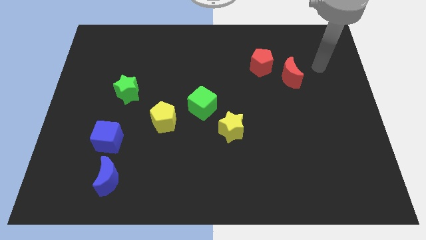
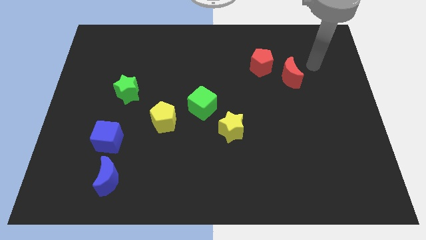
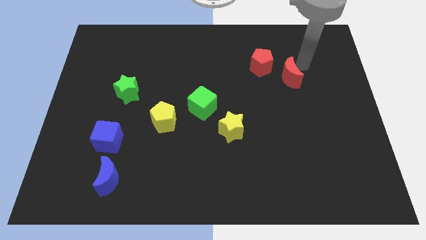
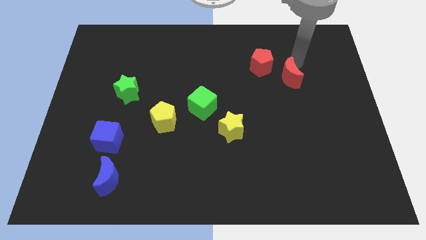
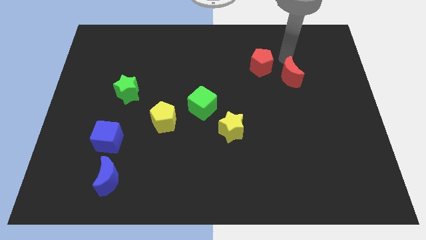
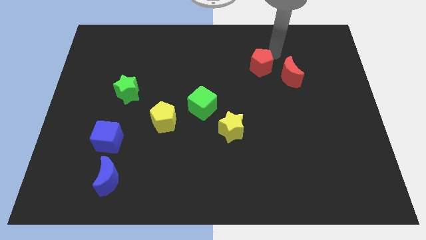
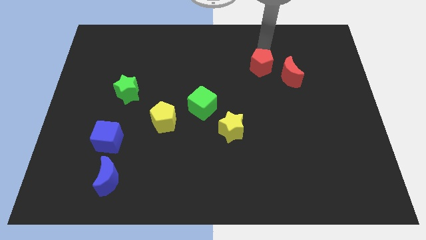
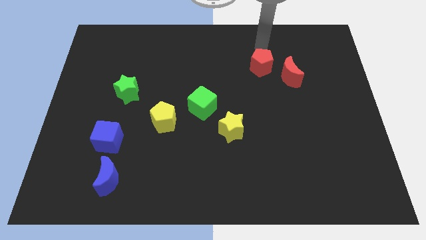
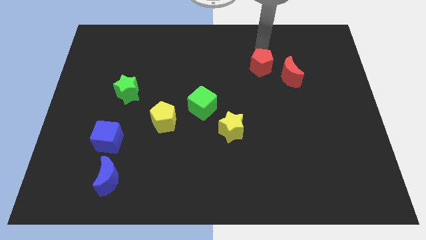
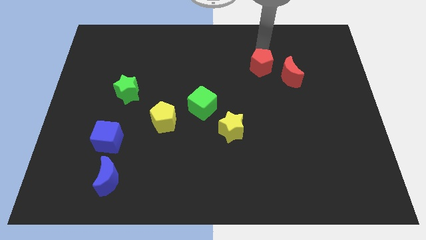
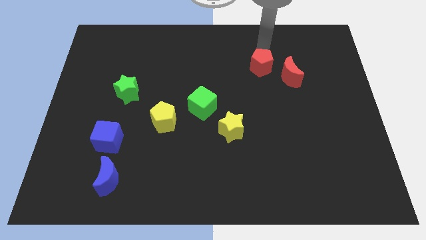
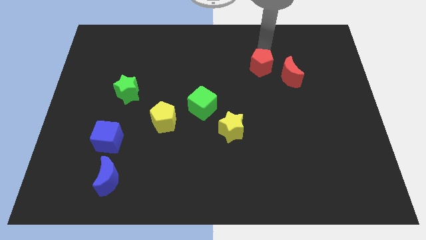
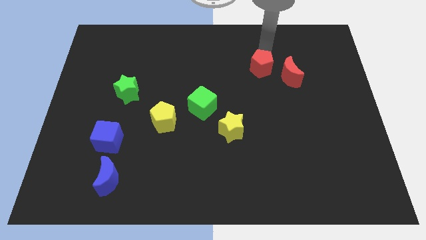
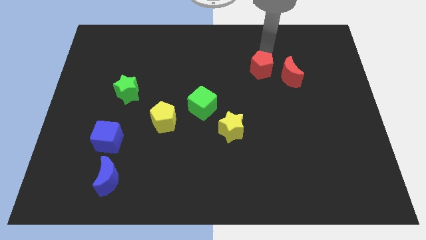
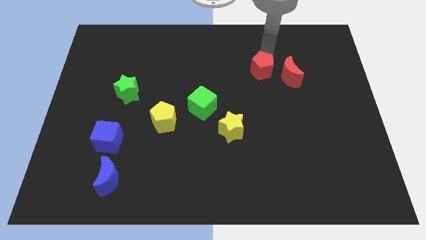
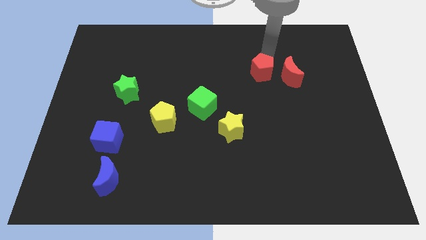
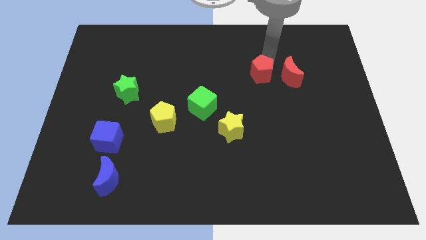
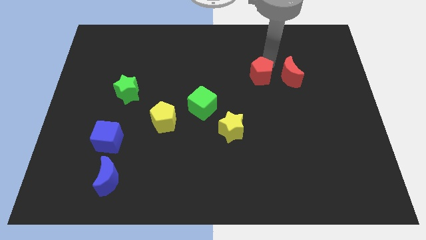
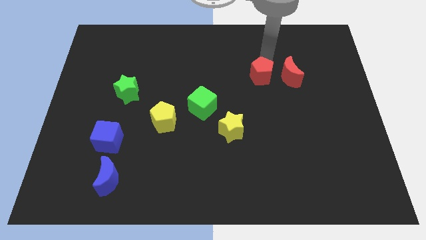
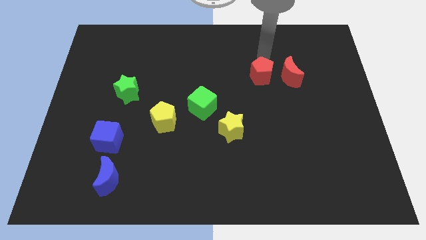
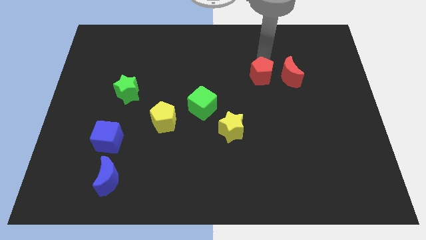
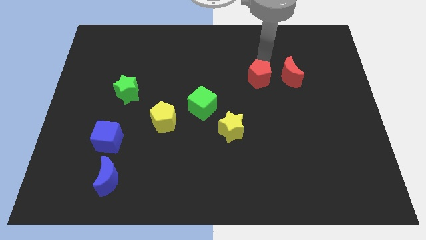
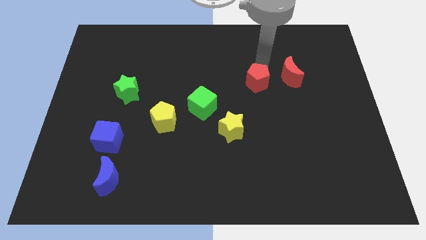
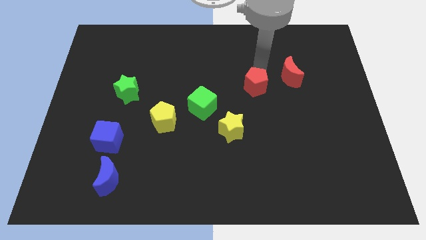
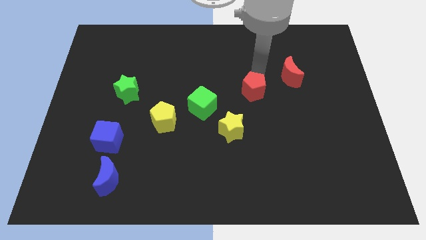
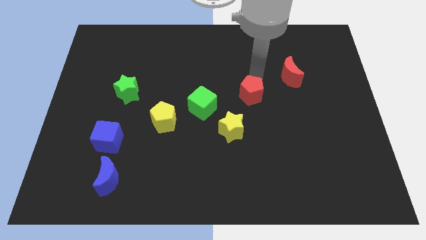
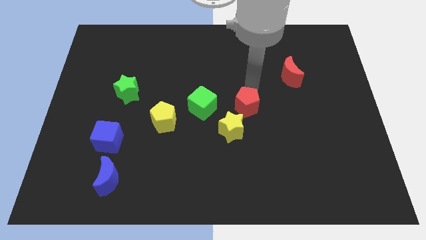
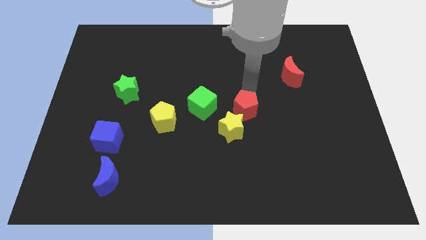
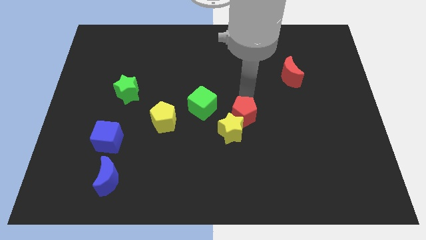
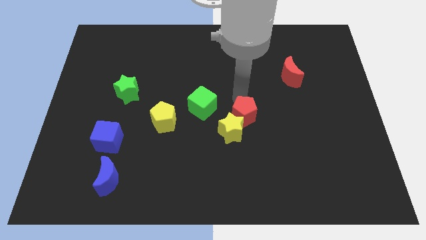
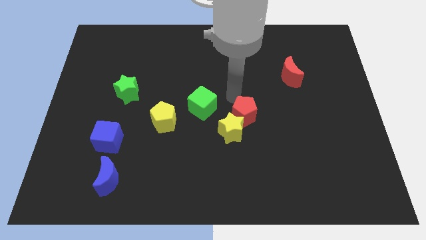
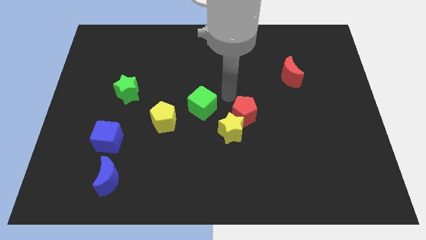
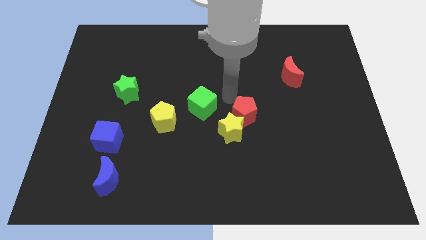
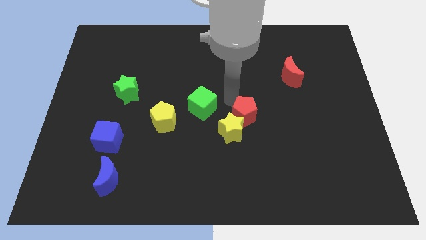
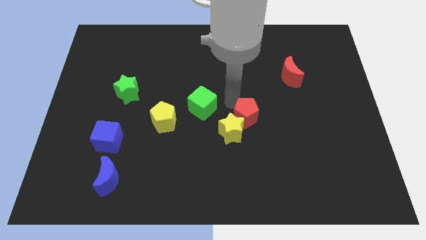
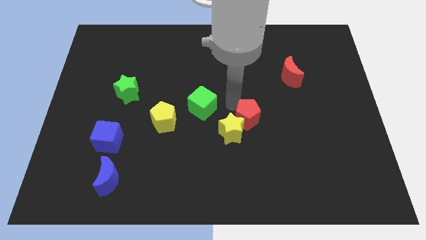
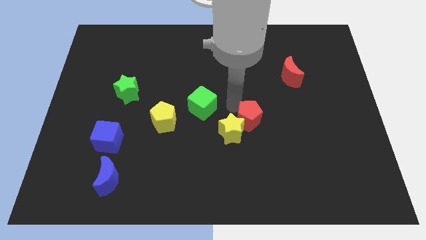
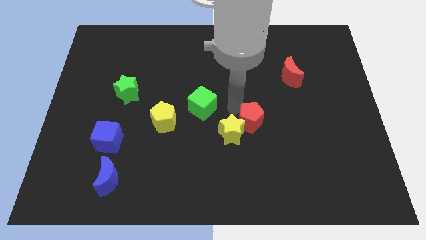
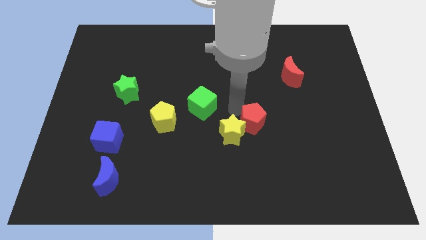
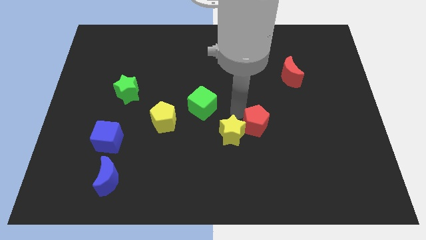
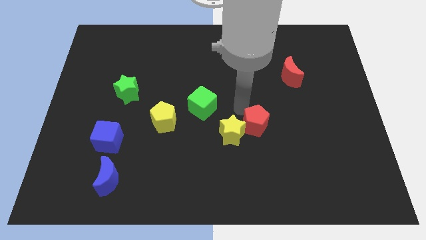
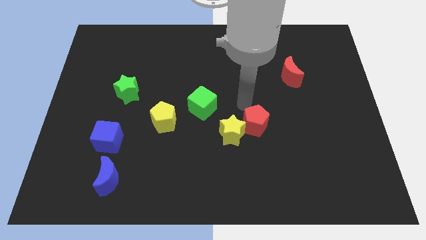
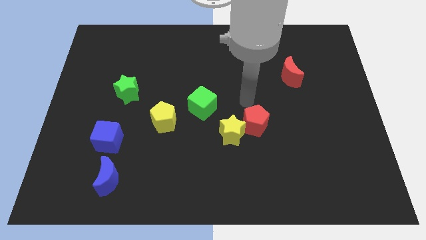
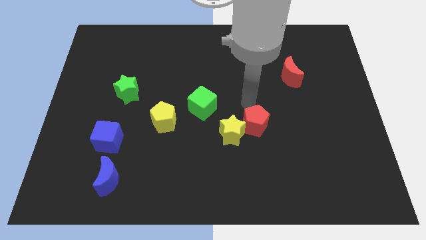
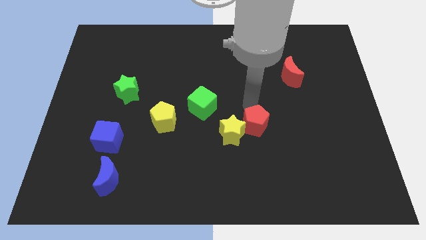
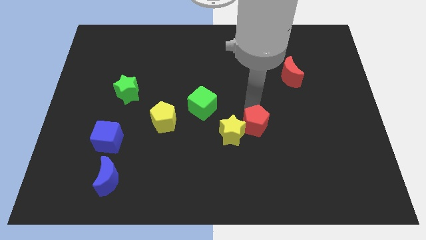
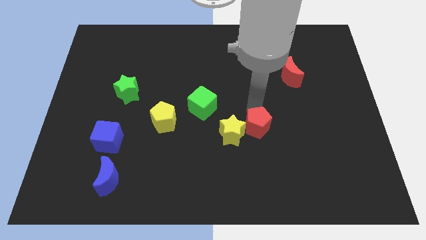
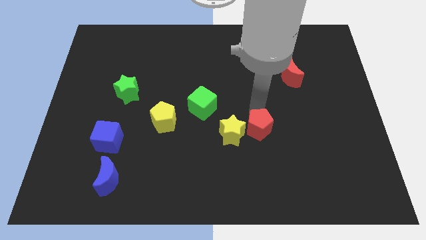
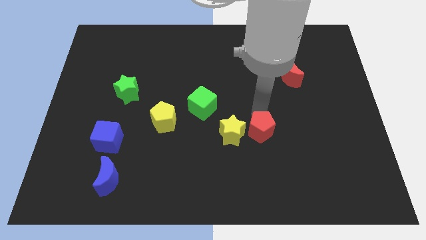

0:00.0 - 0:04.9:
push the red pentagon downwards

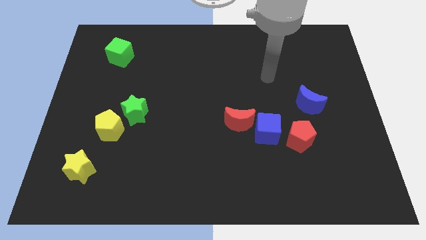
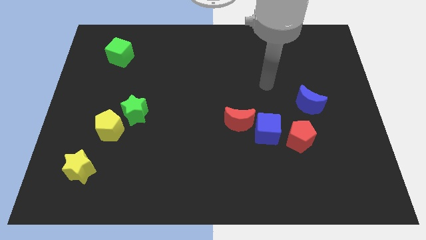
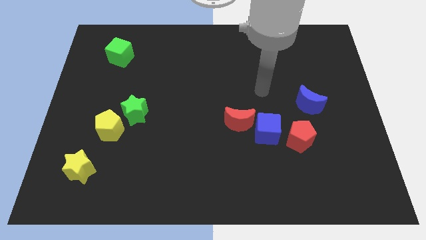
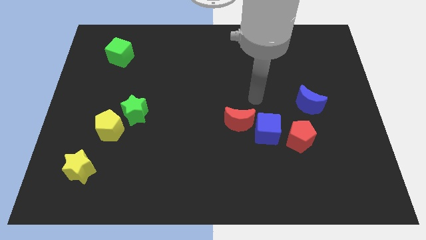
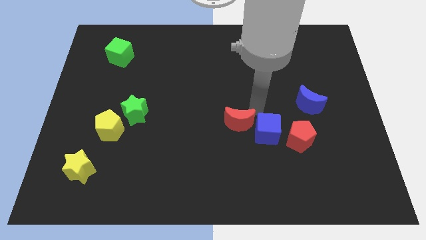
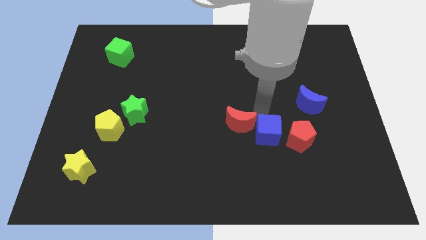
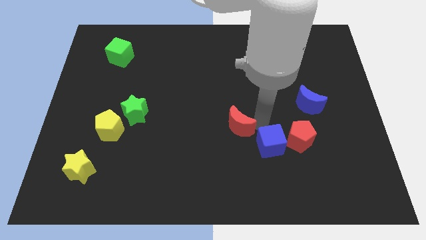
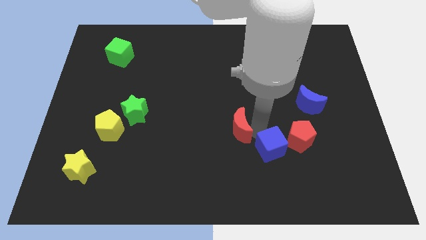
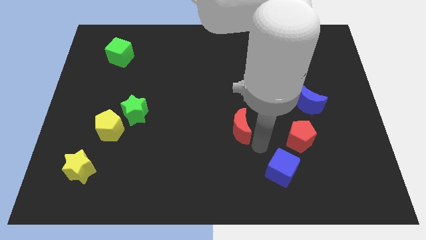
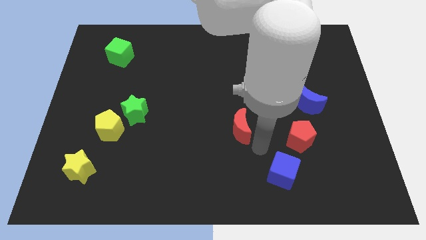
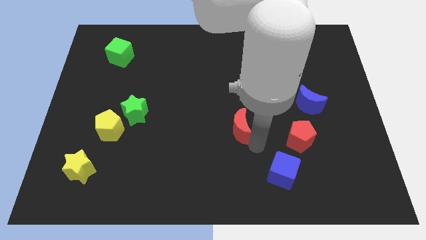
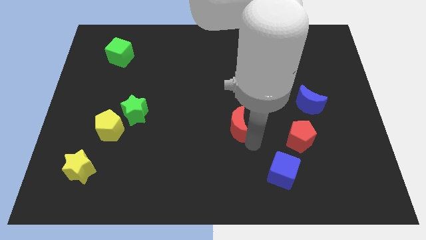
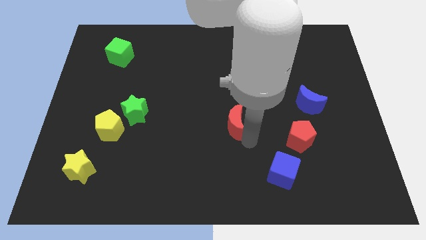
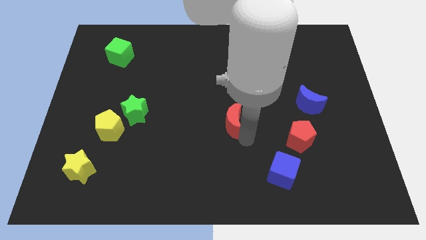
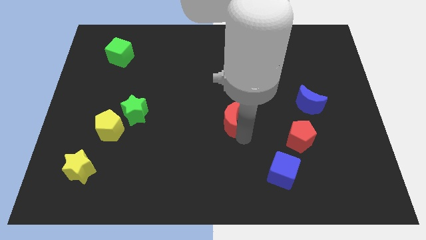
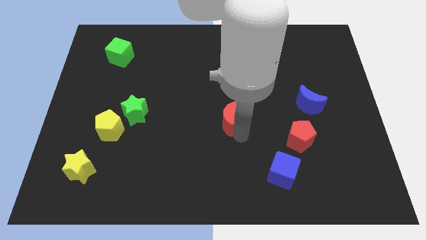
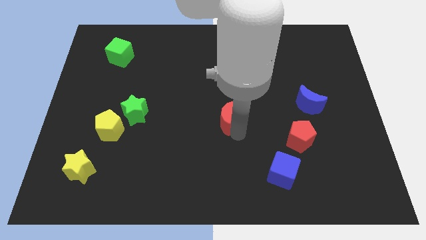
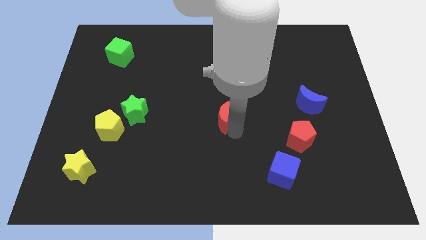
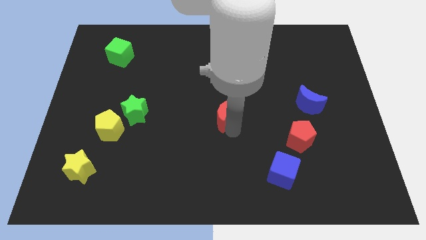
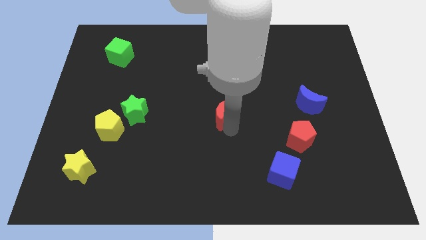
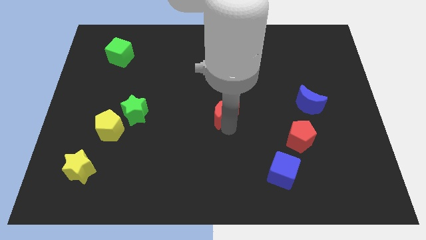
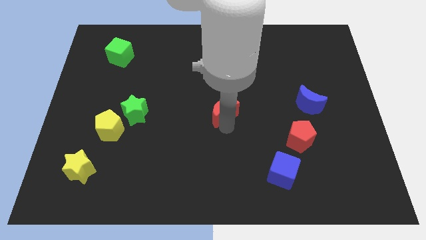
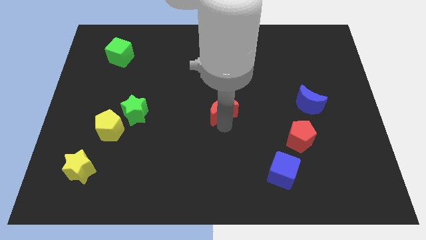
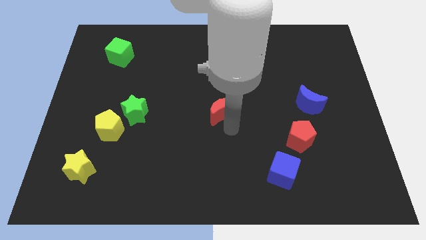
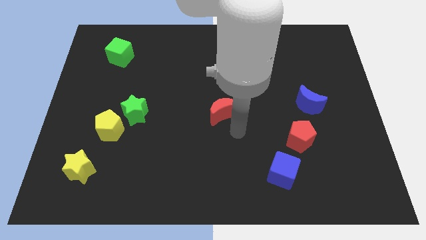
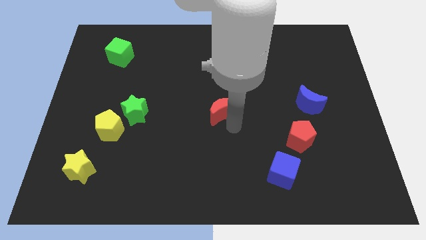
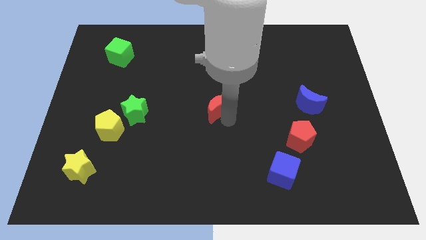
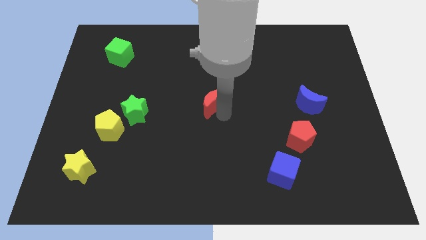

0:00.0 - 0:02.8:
slightly move the red moon upwards and to the left diagonally
